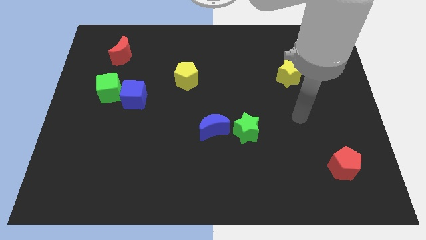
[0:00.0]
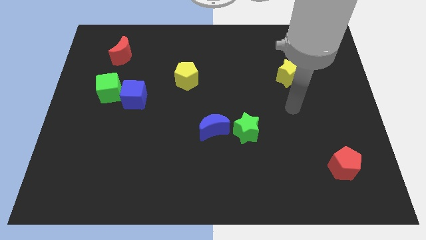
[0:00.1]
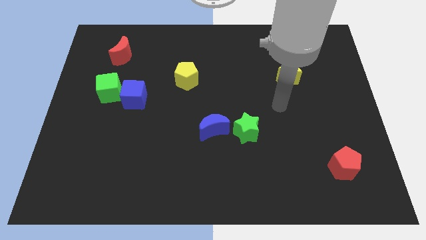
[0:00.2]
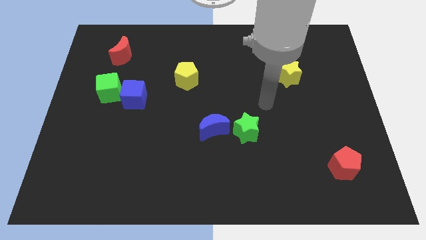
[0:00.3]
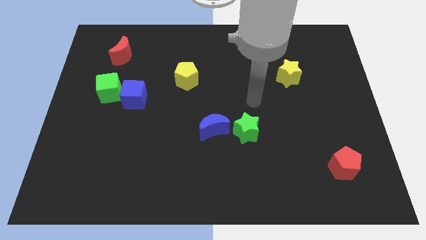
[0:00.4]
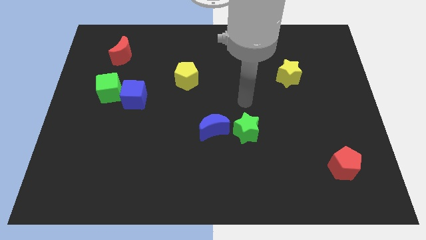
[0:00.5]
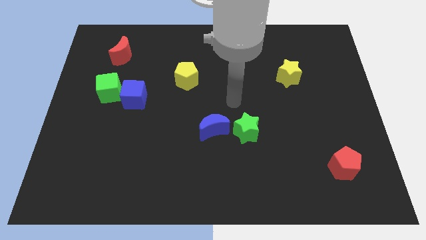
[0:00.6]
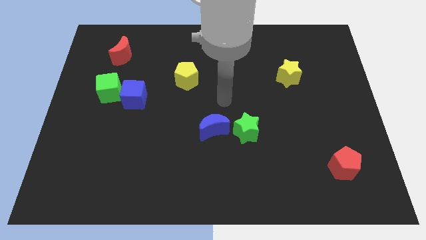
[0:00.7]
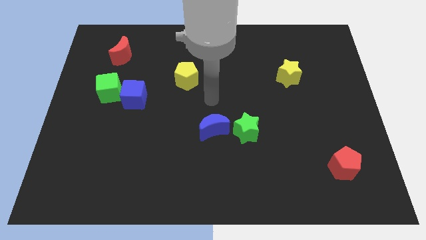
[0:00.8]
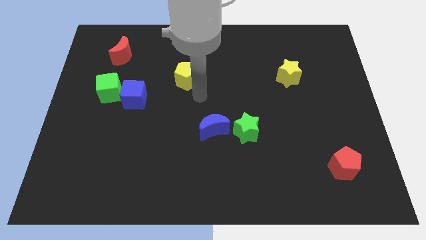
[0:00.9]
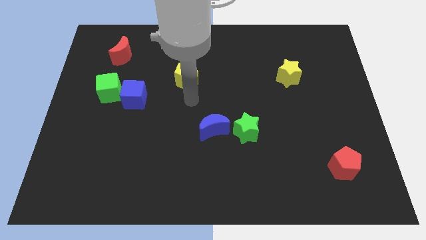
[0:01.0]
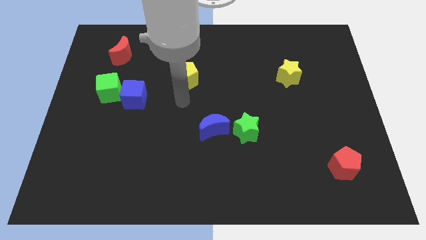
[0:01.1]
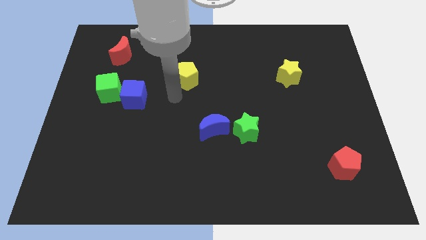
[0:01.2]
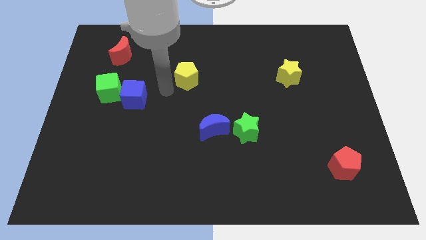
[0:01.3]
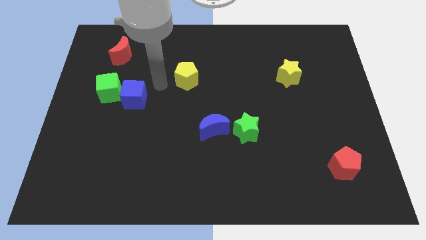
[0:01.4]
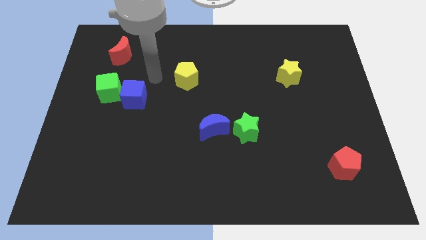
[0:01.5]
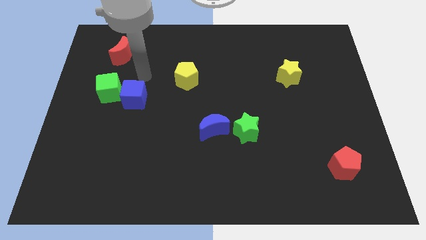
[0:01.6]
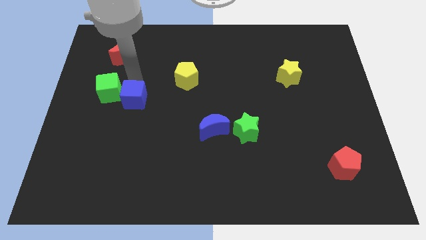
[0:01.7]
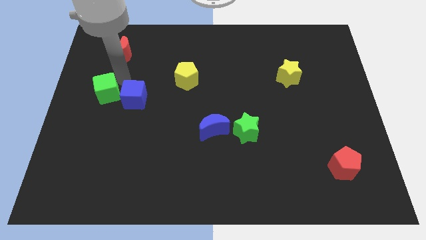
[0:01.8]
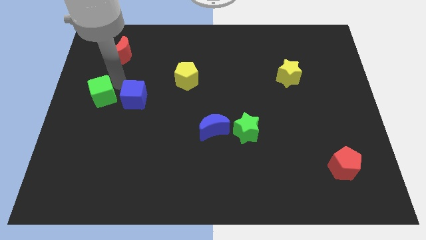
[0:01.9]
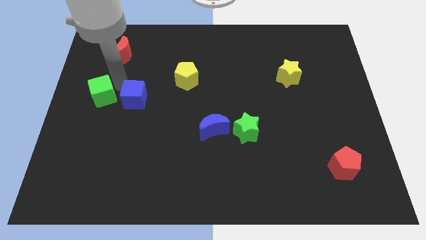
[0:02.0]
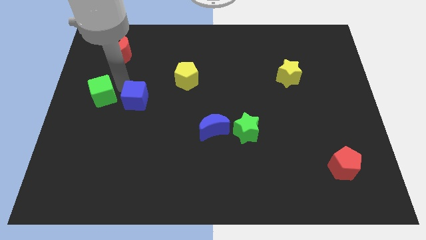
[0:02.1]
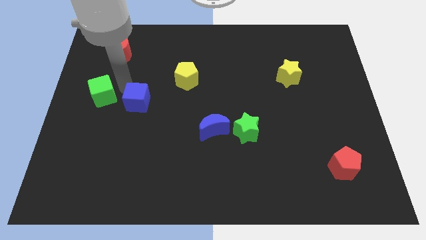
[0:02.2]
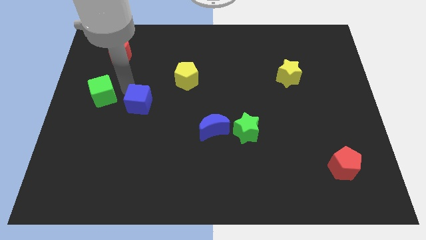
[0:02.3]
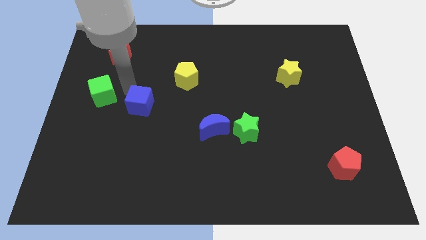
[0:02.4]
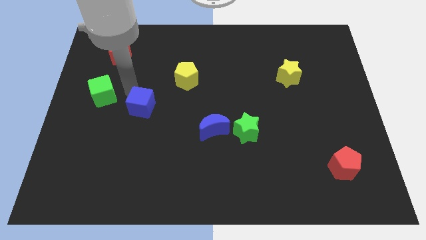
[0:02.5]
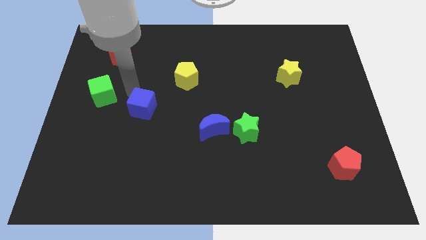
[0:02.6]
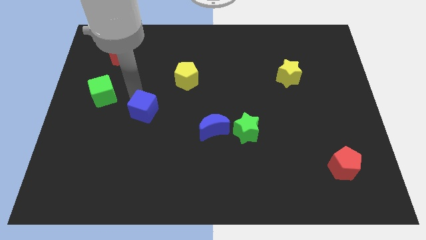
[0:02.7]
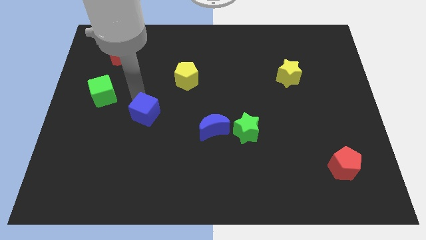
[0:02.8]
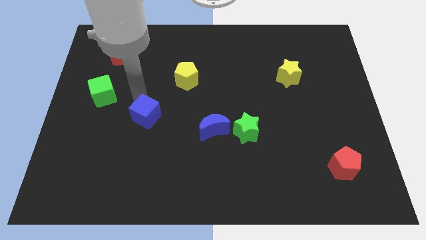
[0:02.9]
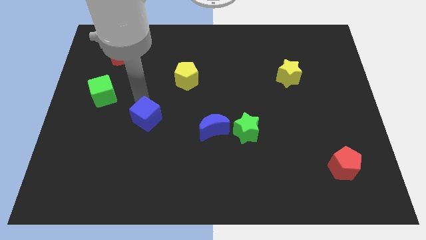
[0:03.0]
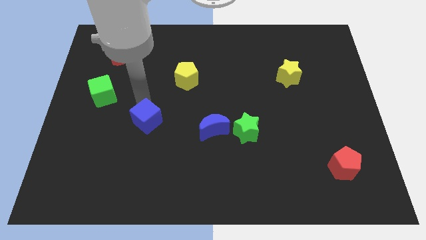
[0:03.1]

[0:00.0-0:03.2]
push the blue cube down and right a bit

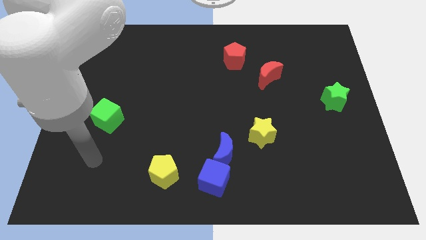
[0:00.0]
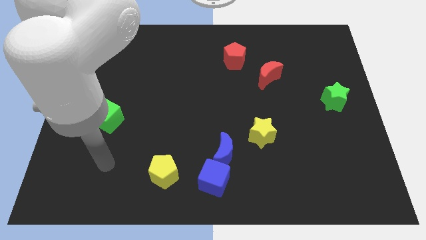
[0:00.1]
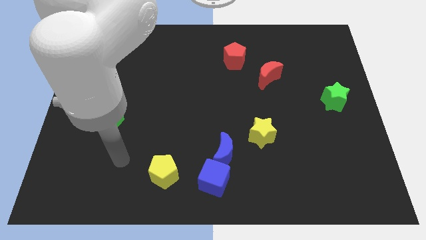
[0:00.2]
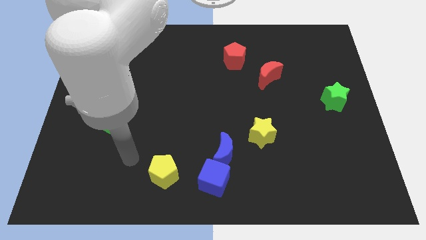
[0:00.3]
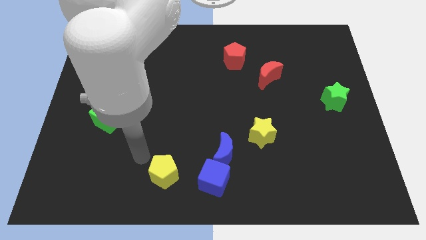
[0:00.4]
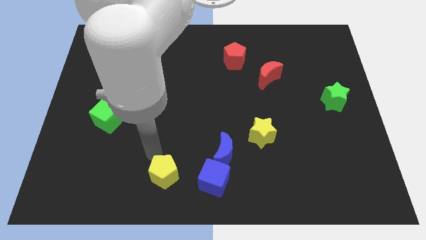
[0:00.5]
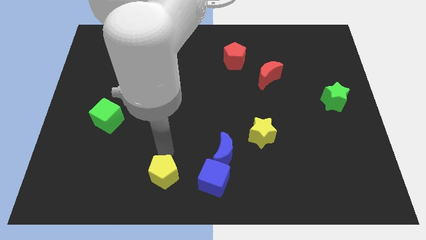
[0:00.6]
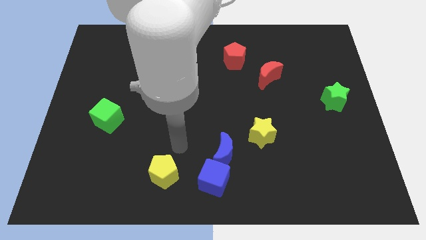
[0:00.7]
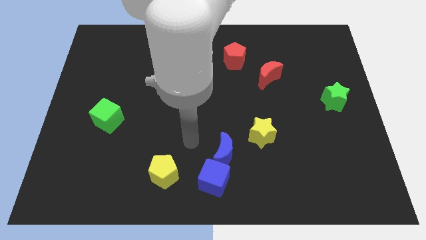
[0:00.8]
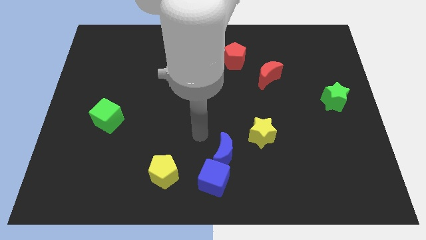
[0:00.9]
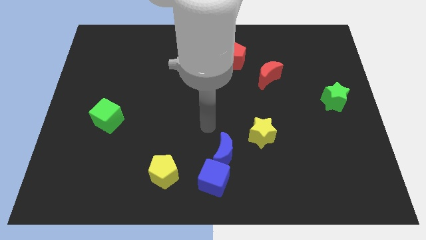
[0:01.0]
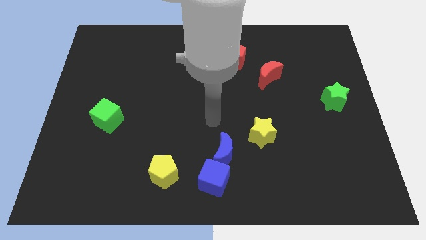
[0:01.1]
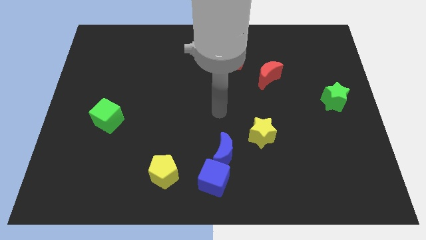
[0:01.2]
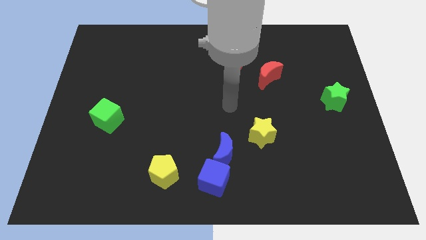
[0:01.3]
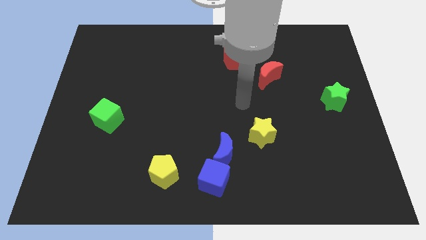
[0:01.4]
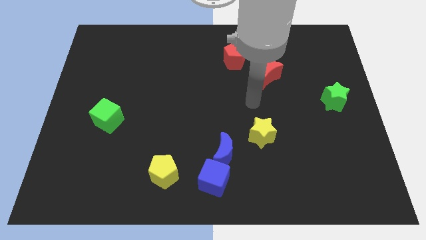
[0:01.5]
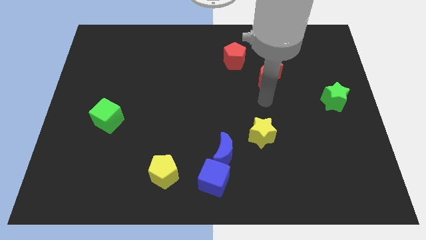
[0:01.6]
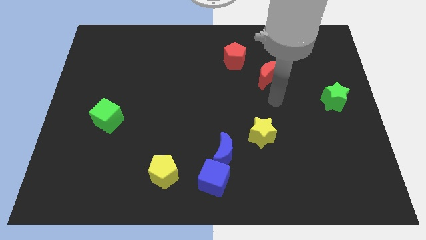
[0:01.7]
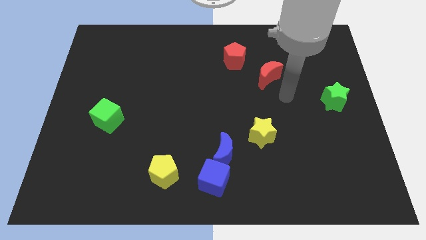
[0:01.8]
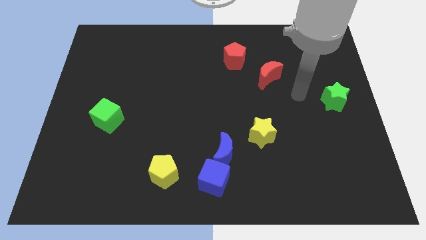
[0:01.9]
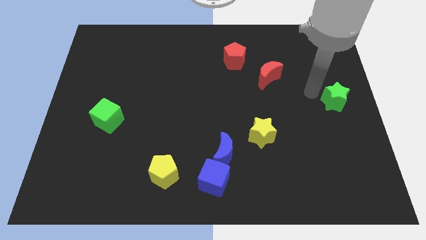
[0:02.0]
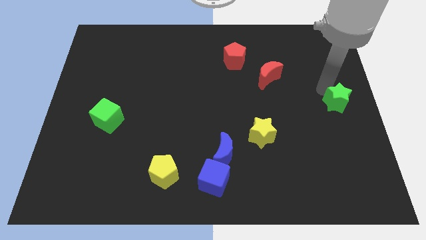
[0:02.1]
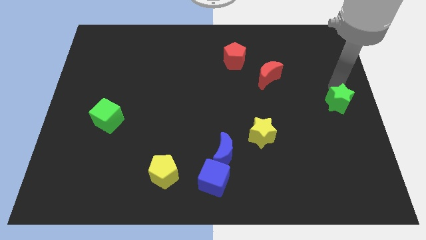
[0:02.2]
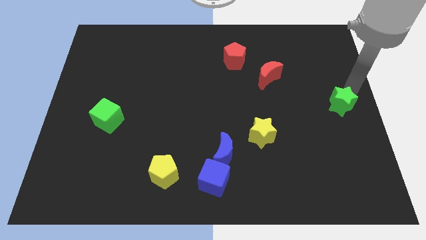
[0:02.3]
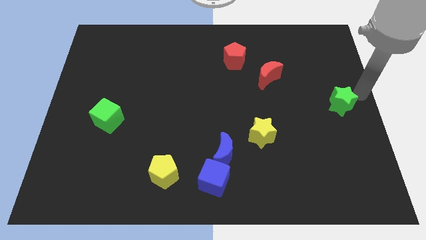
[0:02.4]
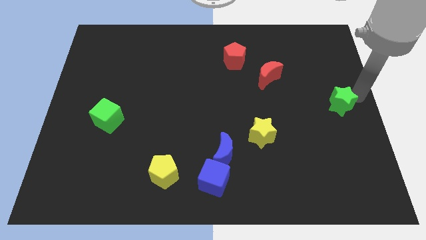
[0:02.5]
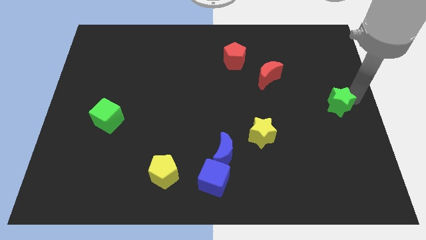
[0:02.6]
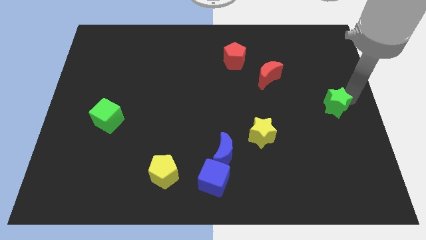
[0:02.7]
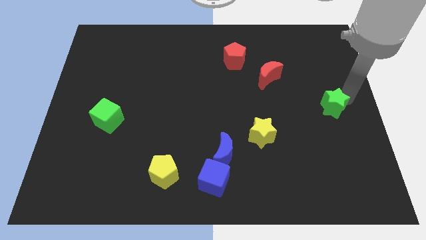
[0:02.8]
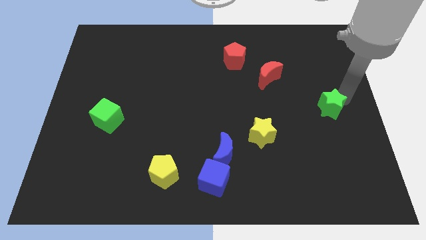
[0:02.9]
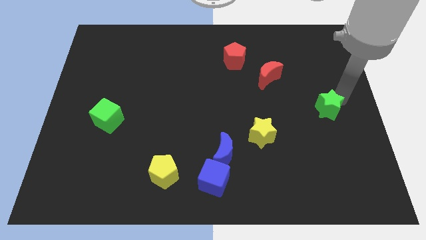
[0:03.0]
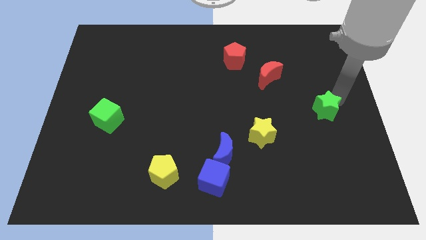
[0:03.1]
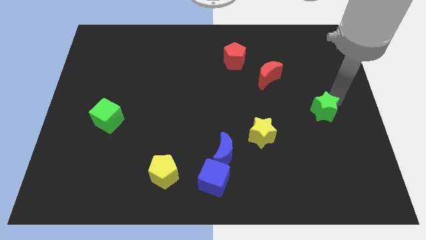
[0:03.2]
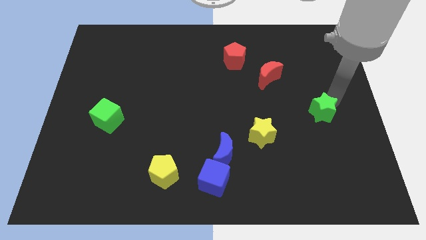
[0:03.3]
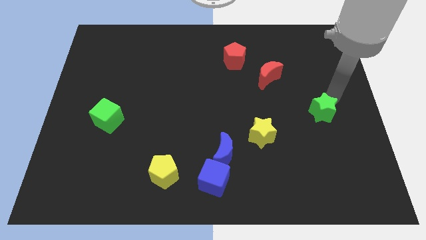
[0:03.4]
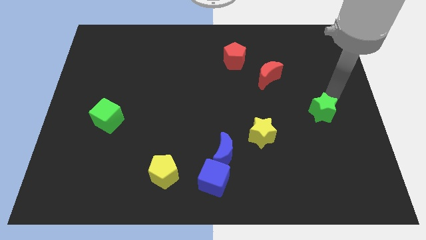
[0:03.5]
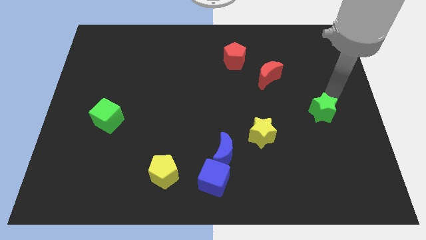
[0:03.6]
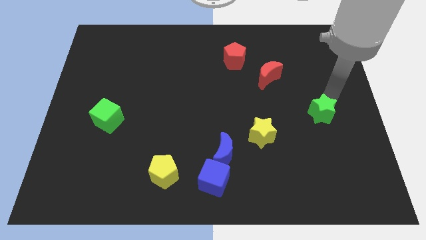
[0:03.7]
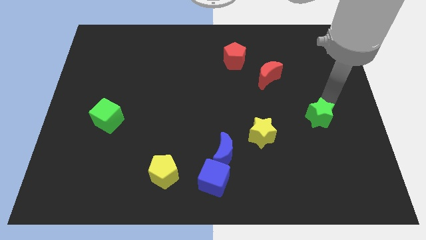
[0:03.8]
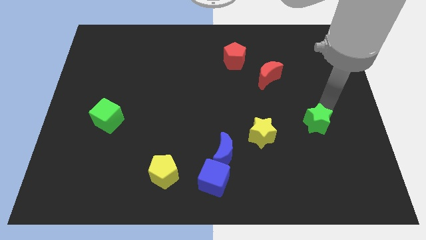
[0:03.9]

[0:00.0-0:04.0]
slide the green star downwards and left a bit

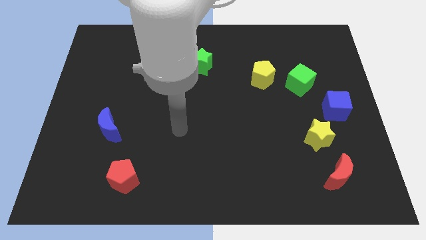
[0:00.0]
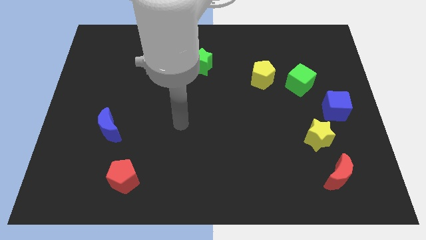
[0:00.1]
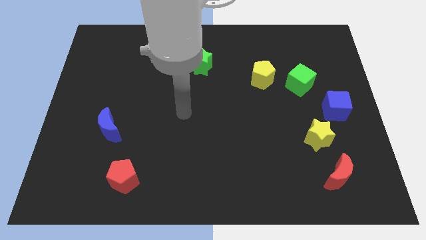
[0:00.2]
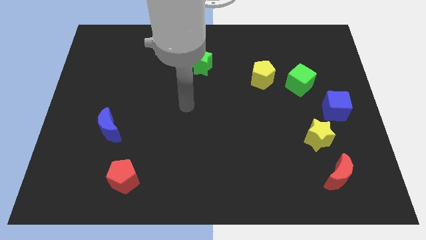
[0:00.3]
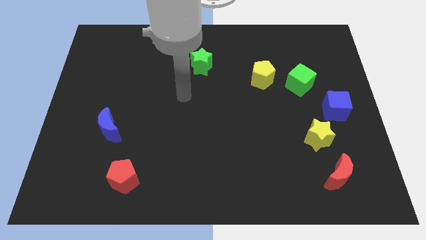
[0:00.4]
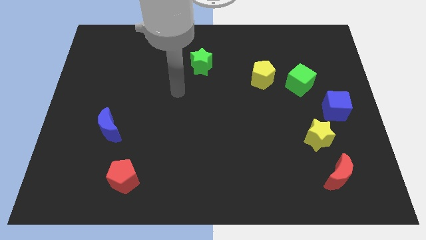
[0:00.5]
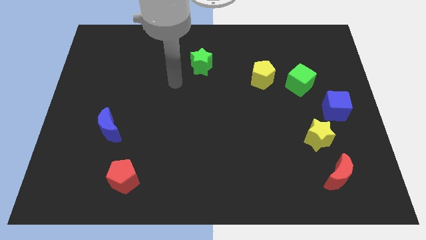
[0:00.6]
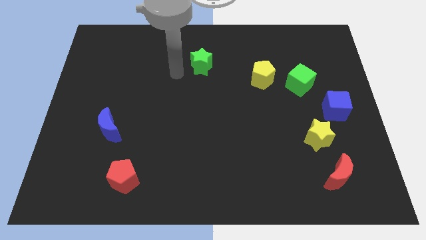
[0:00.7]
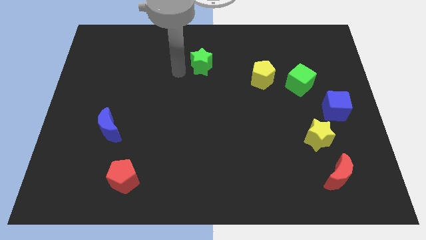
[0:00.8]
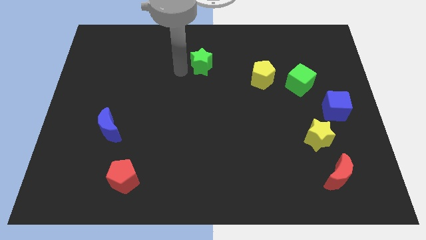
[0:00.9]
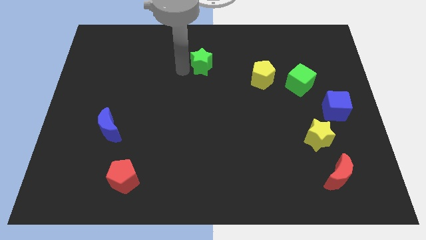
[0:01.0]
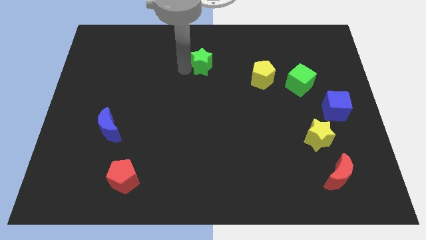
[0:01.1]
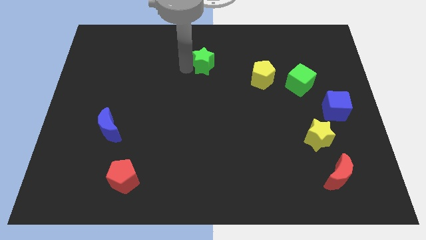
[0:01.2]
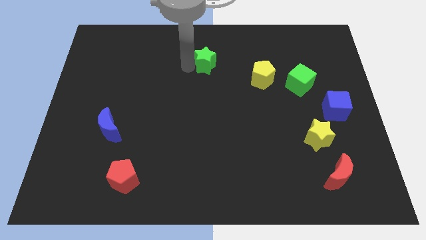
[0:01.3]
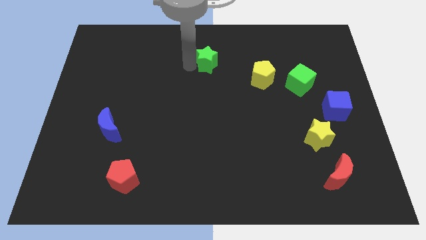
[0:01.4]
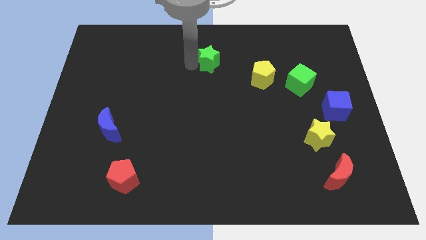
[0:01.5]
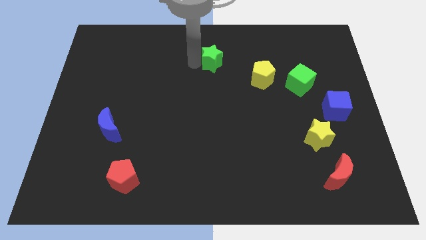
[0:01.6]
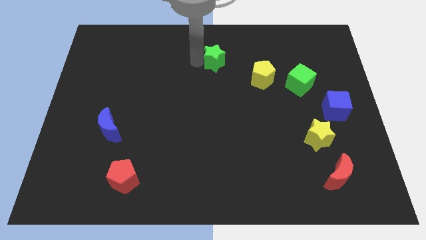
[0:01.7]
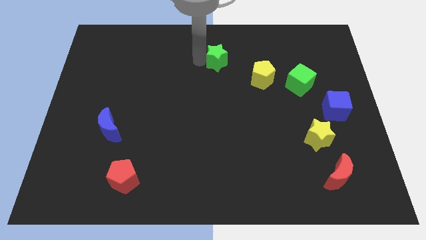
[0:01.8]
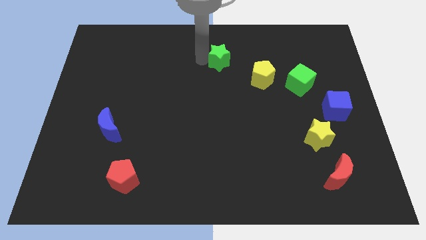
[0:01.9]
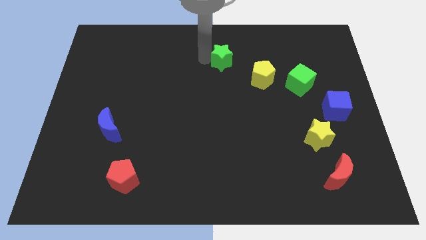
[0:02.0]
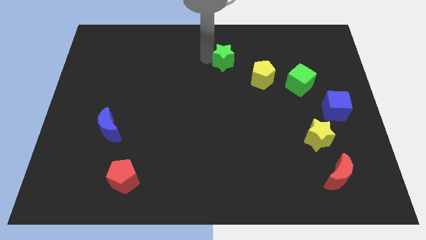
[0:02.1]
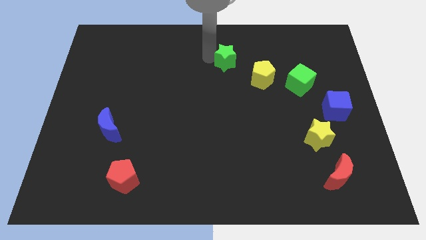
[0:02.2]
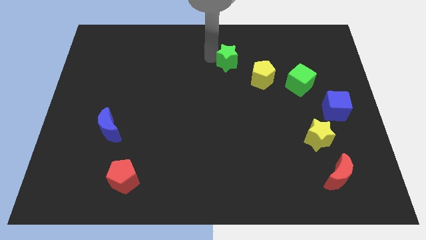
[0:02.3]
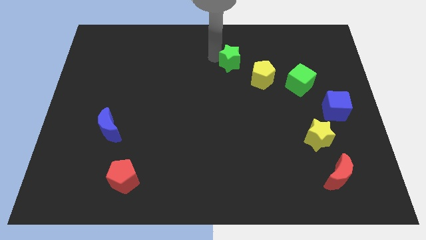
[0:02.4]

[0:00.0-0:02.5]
push the green star right a bit
